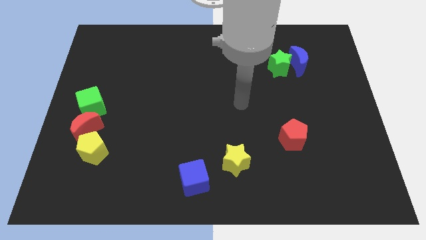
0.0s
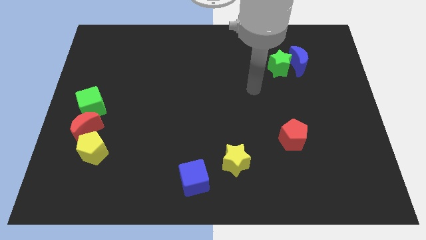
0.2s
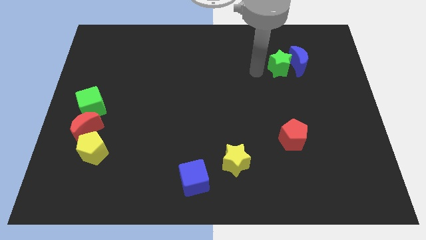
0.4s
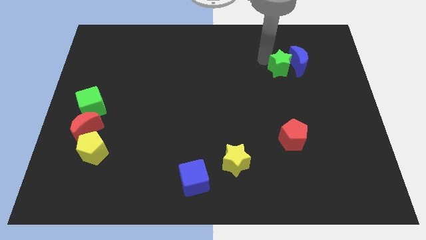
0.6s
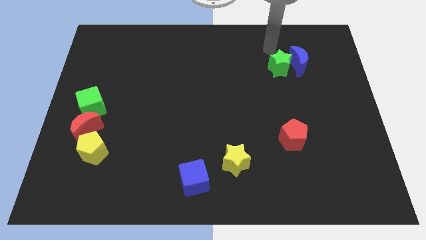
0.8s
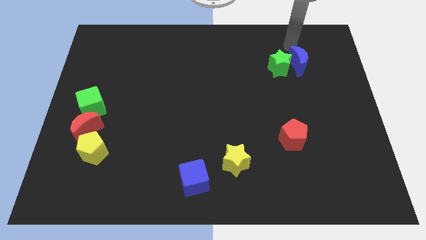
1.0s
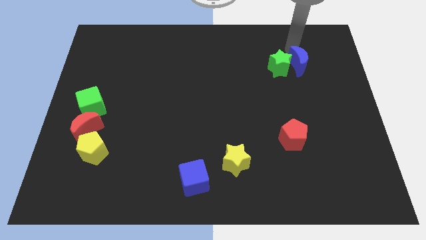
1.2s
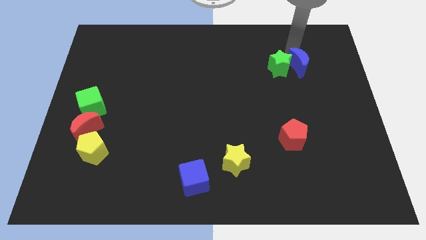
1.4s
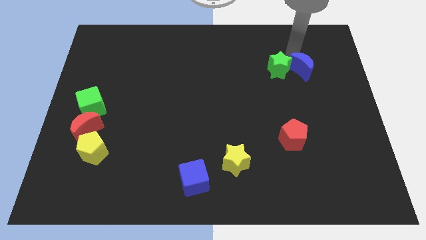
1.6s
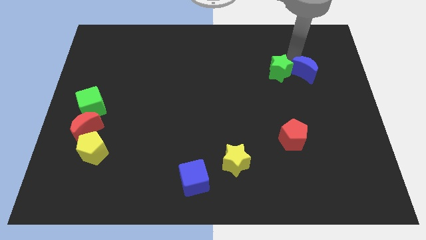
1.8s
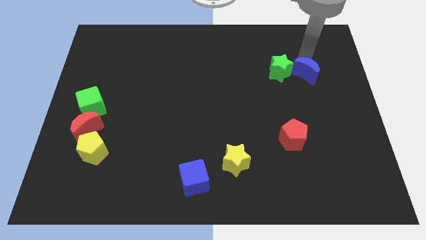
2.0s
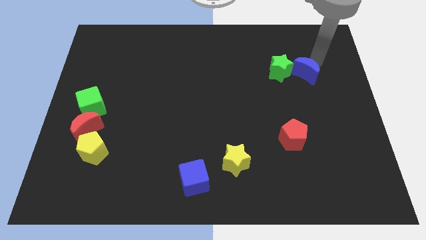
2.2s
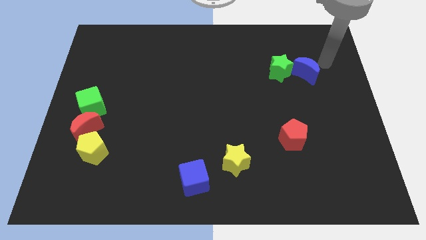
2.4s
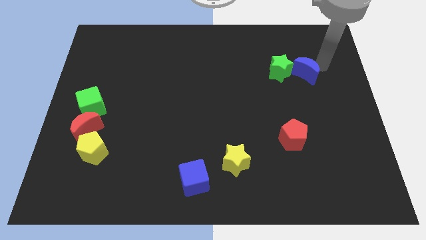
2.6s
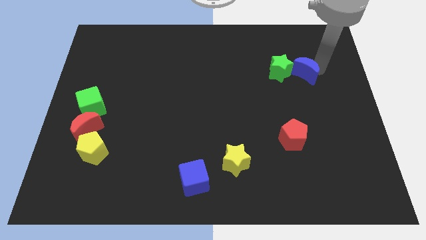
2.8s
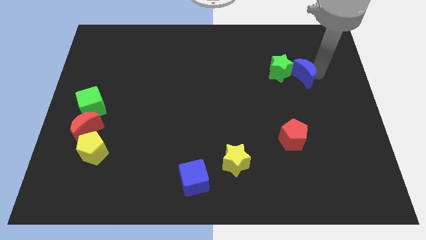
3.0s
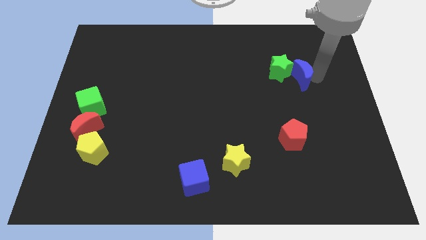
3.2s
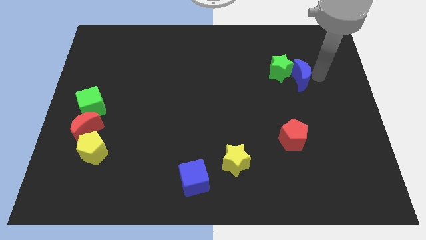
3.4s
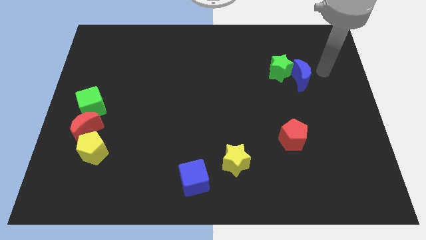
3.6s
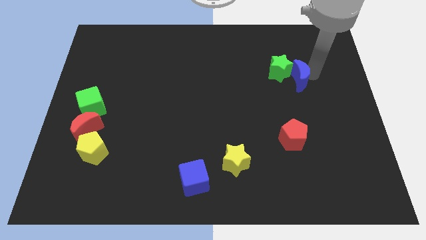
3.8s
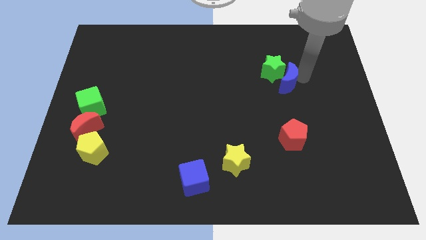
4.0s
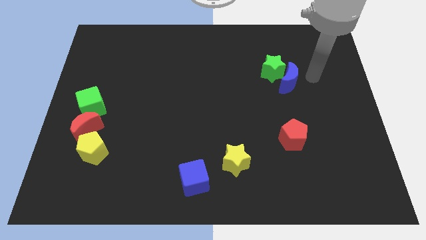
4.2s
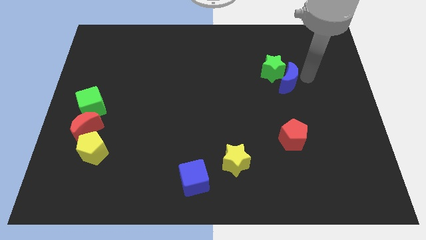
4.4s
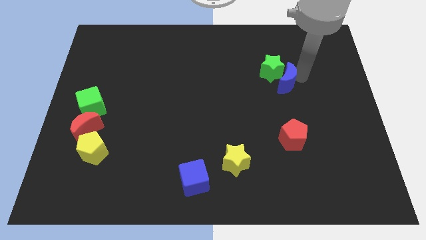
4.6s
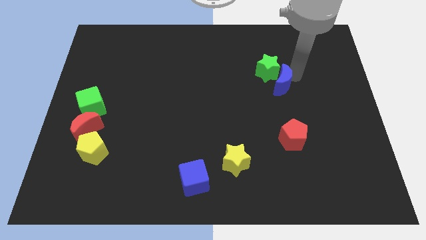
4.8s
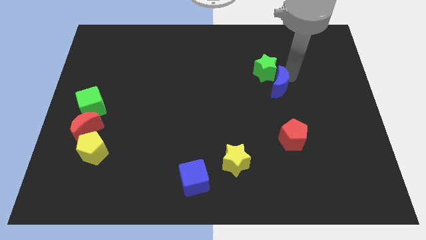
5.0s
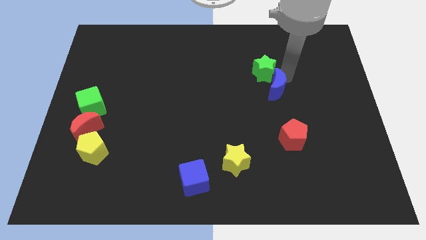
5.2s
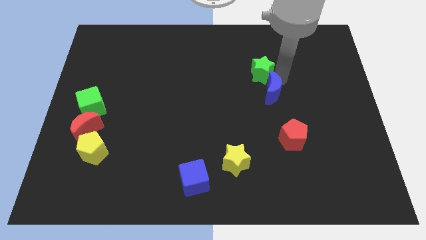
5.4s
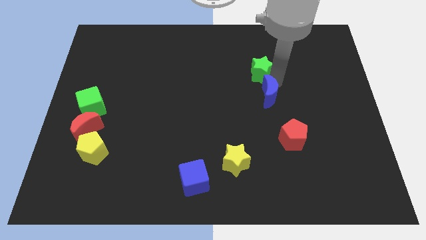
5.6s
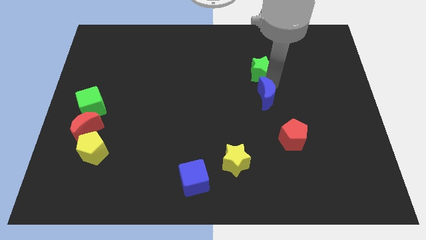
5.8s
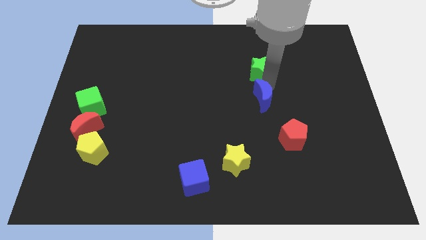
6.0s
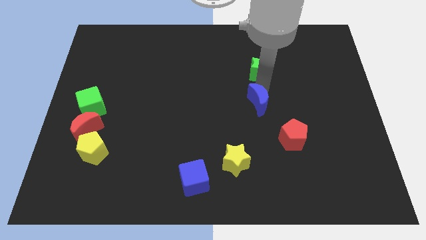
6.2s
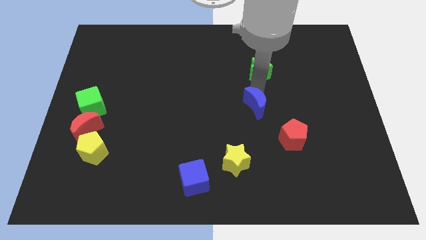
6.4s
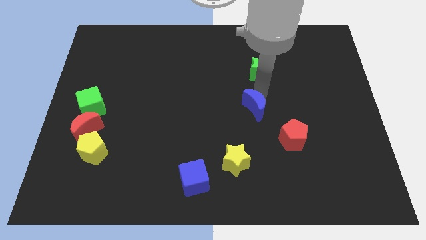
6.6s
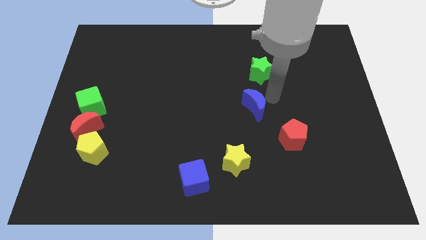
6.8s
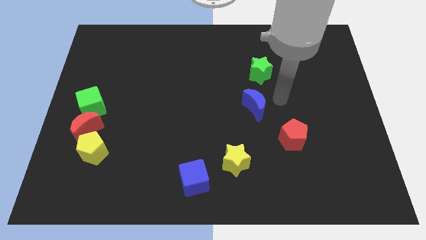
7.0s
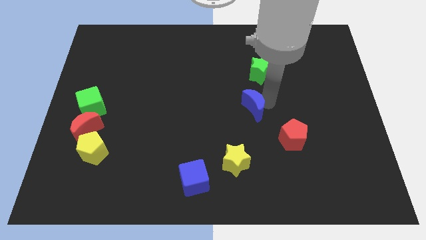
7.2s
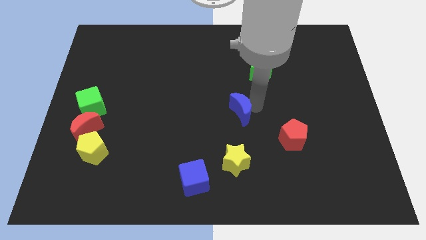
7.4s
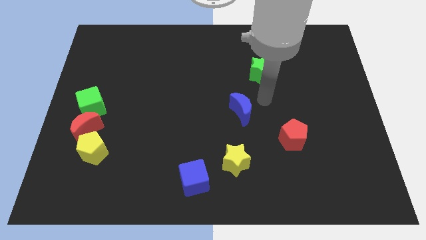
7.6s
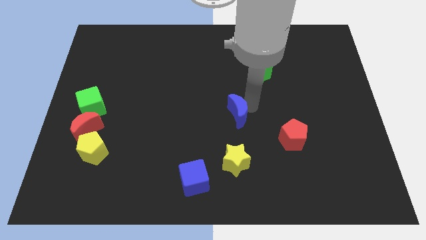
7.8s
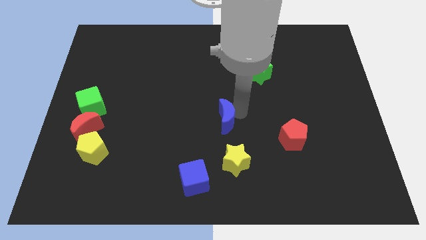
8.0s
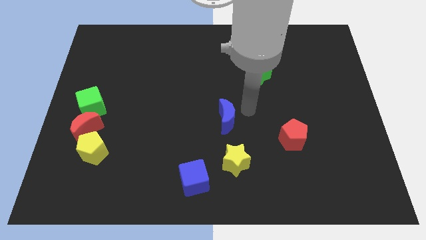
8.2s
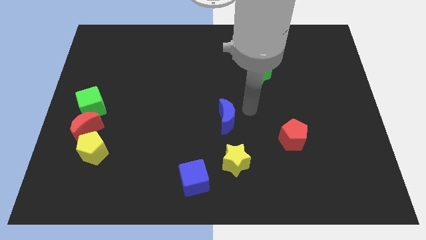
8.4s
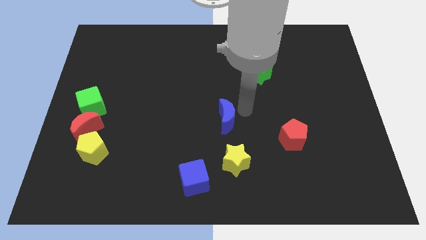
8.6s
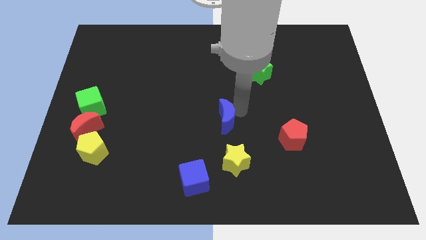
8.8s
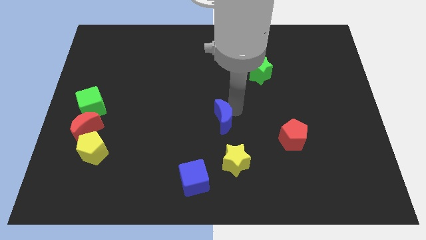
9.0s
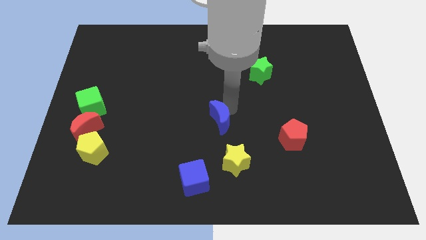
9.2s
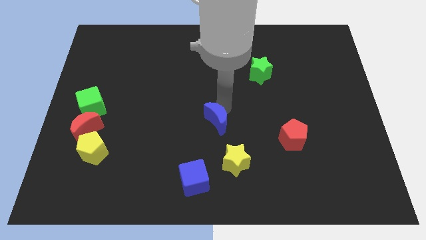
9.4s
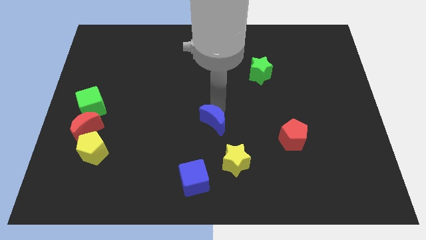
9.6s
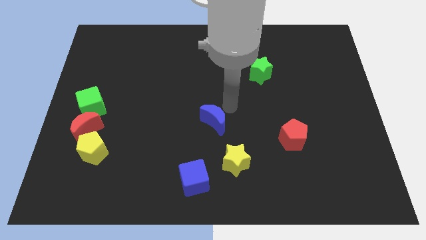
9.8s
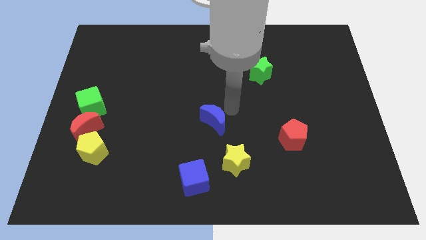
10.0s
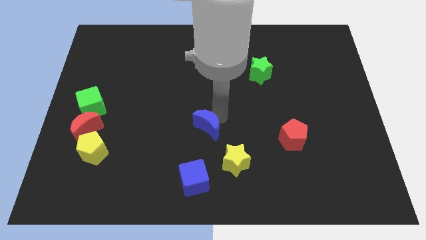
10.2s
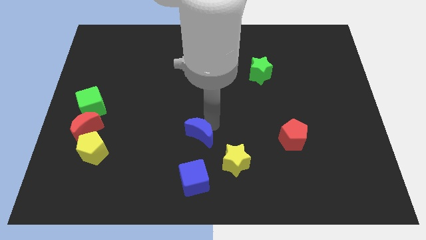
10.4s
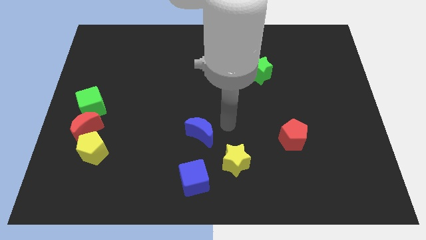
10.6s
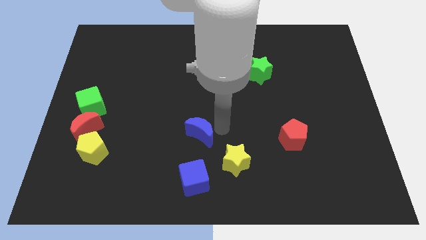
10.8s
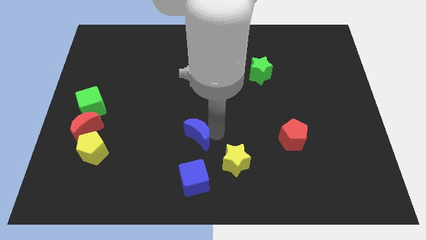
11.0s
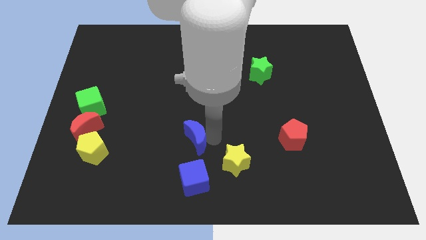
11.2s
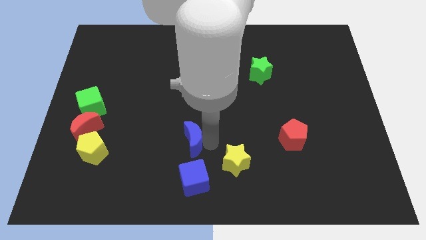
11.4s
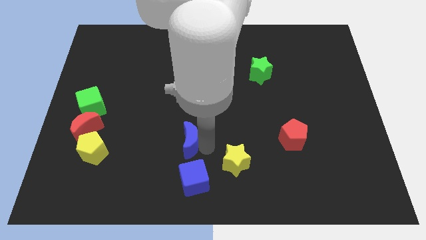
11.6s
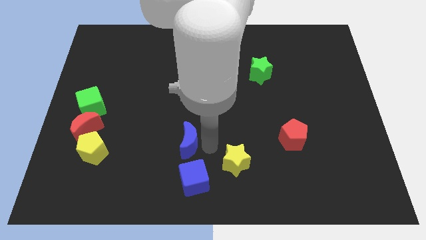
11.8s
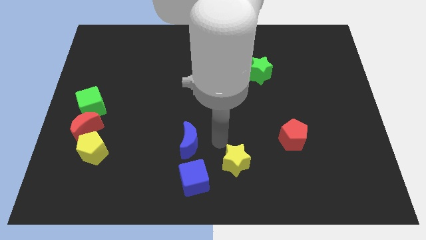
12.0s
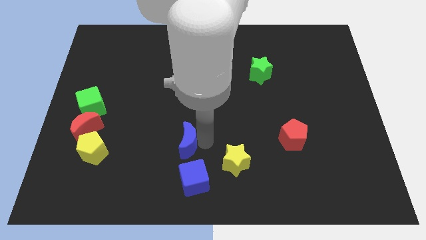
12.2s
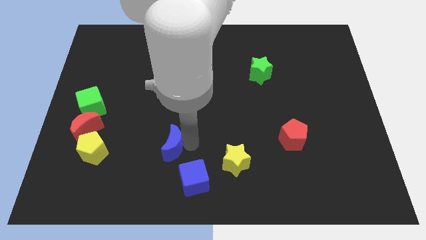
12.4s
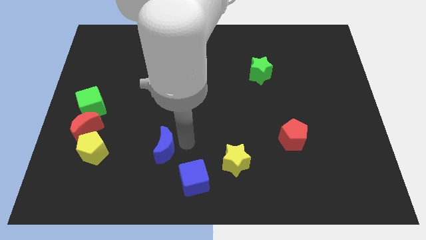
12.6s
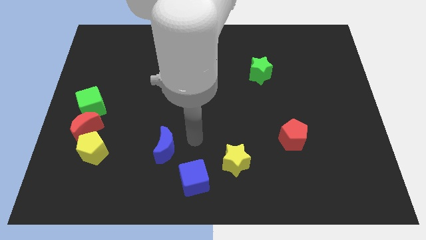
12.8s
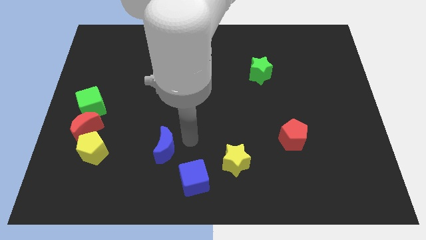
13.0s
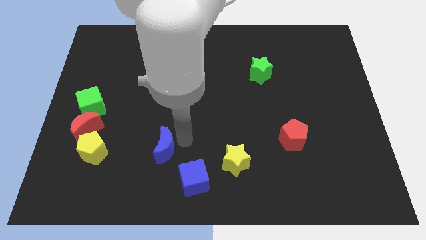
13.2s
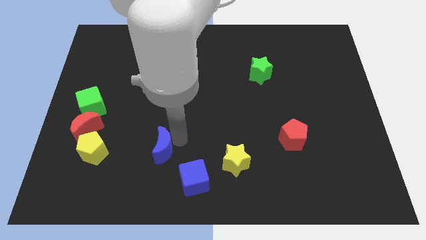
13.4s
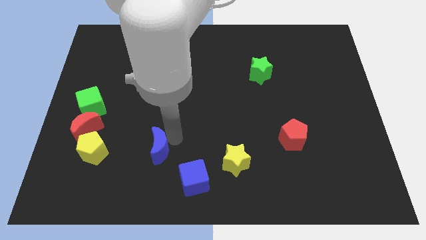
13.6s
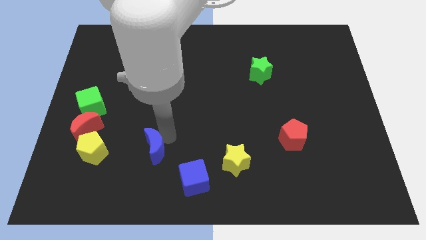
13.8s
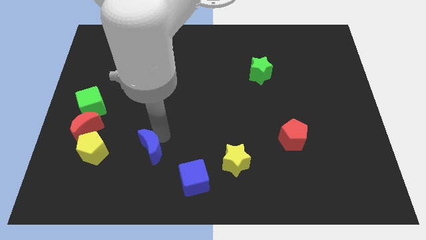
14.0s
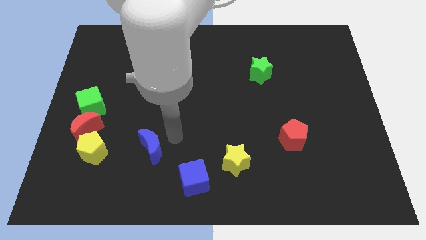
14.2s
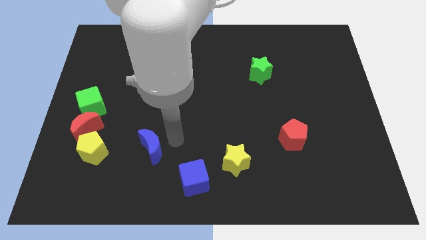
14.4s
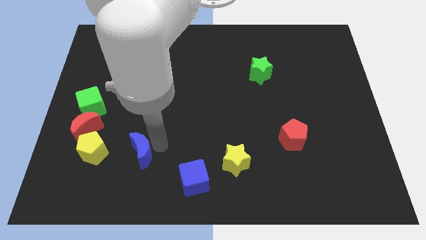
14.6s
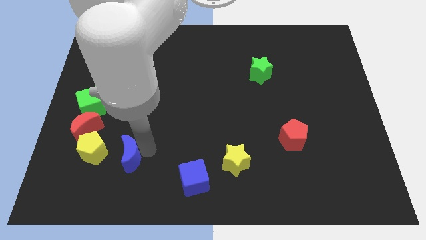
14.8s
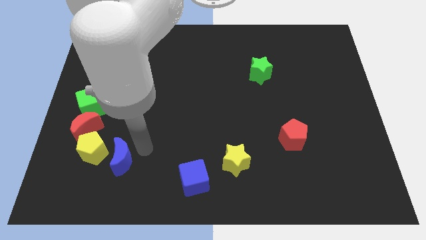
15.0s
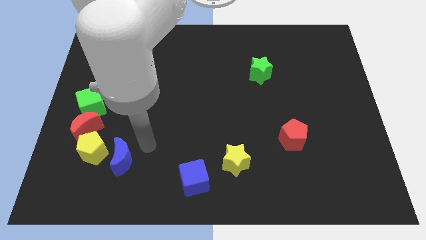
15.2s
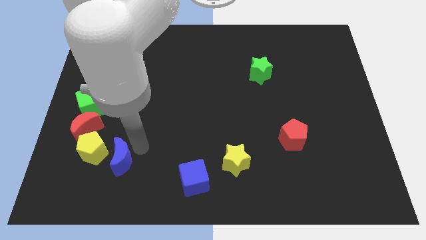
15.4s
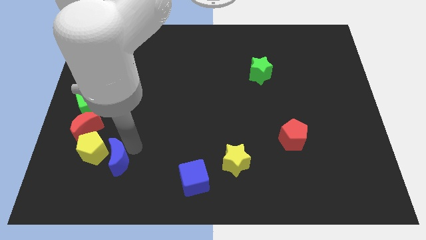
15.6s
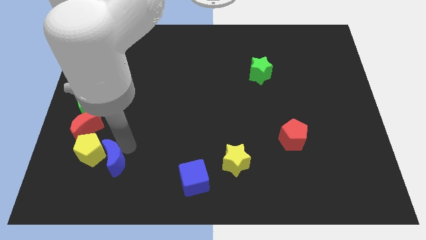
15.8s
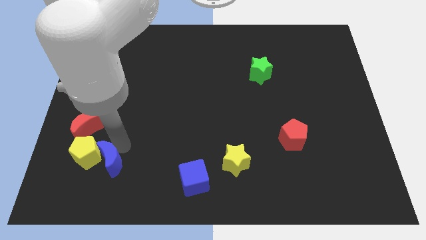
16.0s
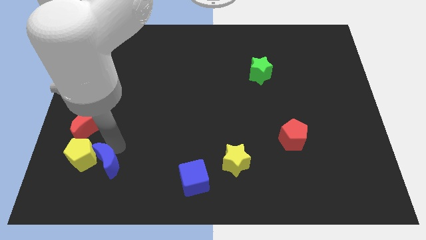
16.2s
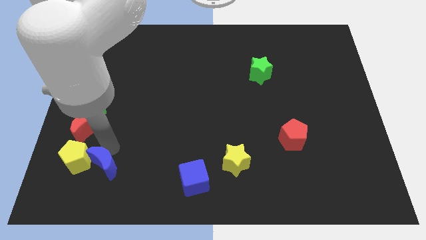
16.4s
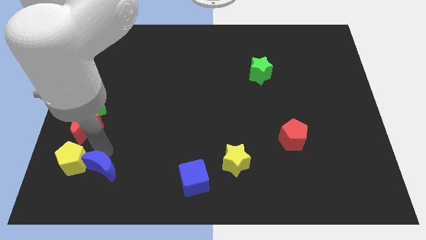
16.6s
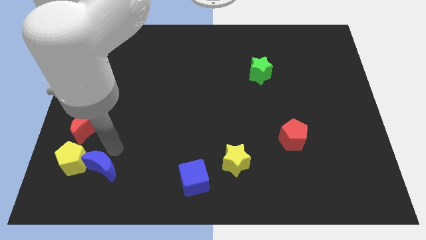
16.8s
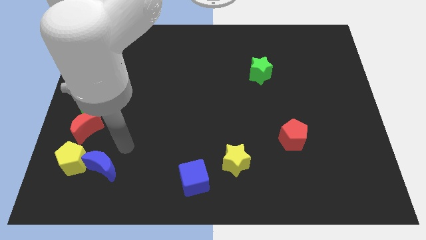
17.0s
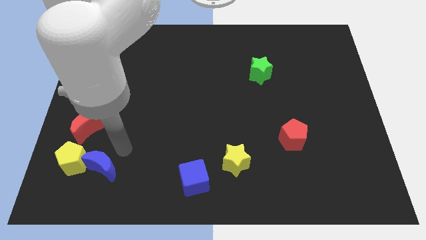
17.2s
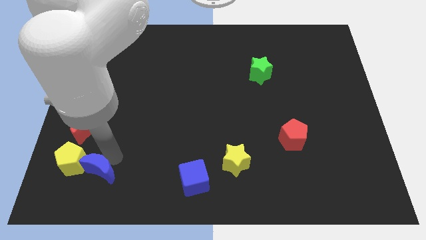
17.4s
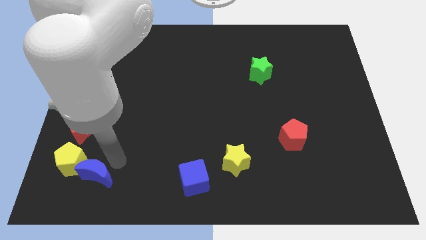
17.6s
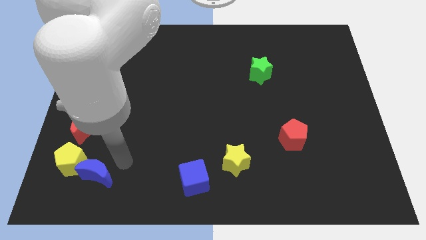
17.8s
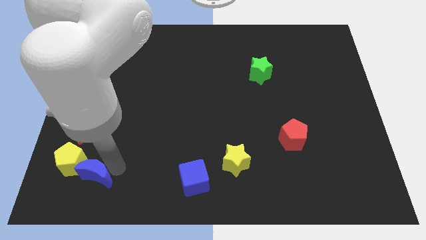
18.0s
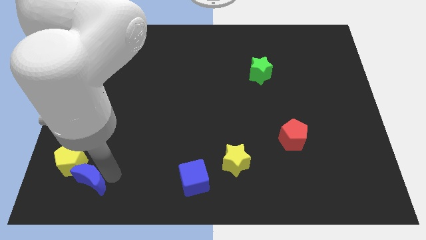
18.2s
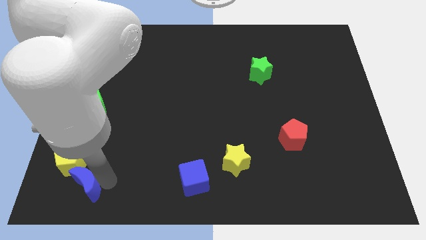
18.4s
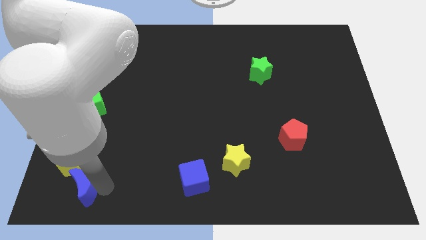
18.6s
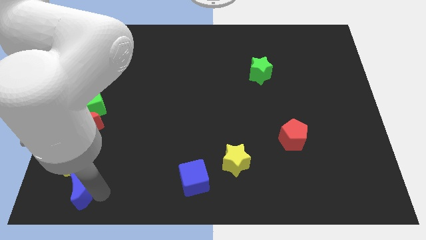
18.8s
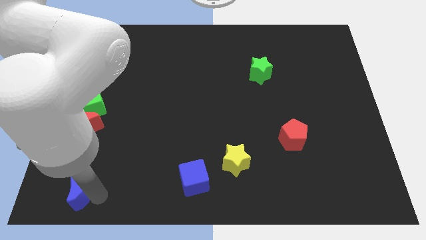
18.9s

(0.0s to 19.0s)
move the blue moon to the bottom left of the board
